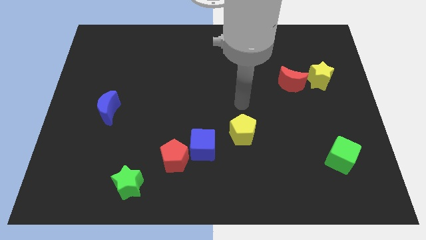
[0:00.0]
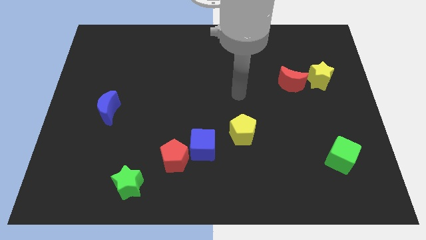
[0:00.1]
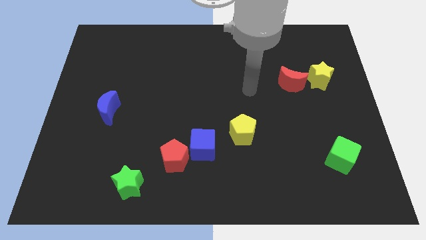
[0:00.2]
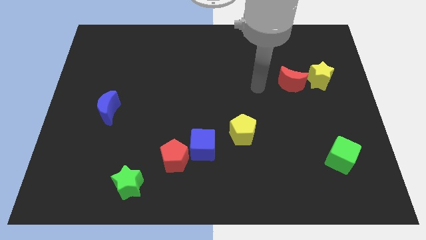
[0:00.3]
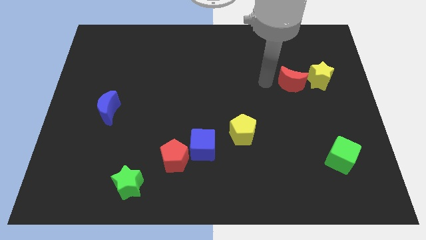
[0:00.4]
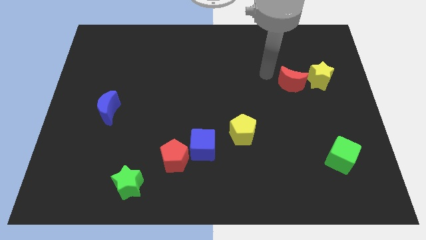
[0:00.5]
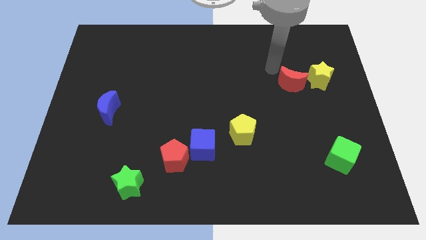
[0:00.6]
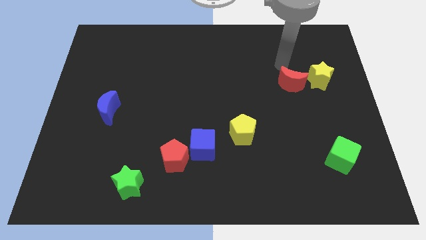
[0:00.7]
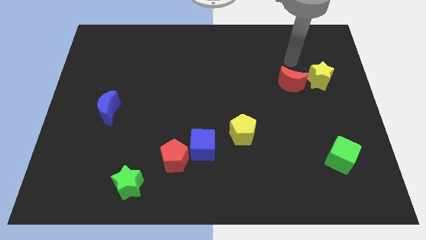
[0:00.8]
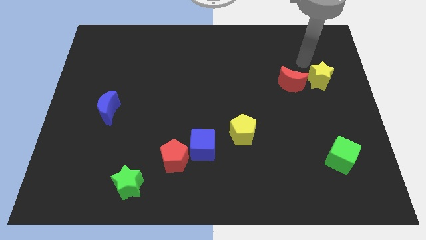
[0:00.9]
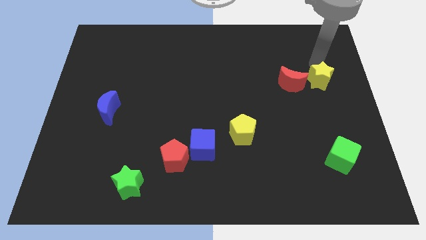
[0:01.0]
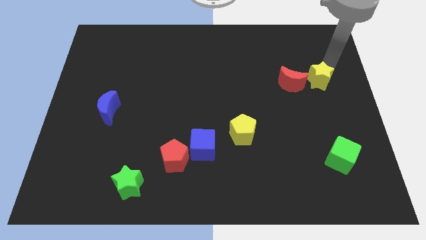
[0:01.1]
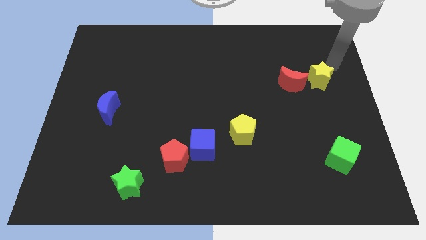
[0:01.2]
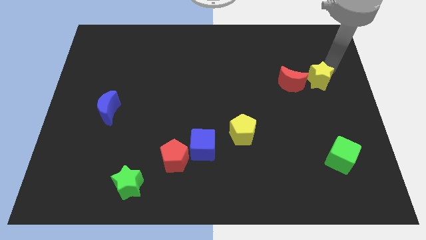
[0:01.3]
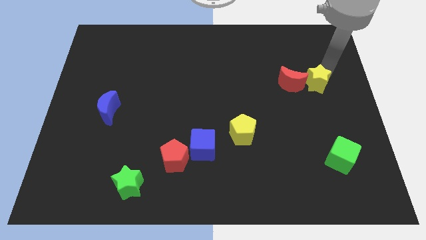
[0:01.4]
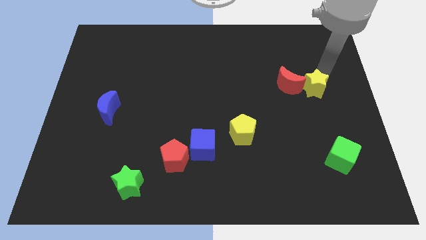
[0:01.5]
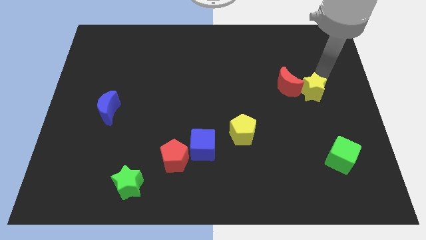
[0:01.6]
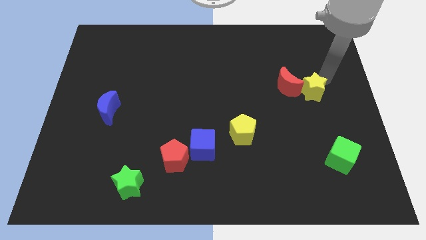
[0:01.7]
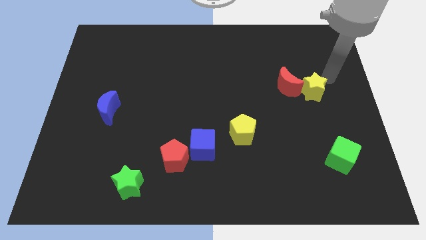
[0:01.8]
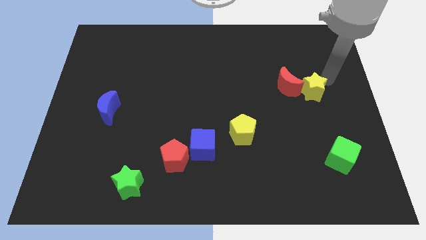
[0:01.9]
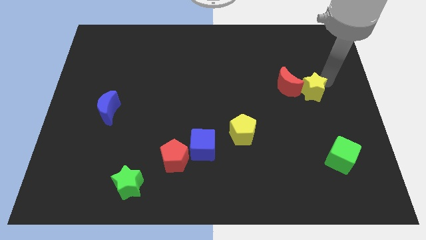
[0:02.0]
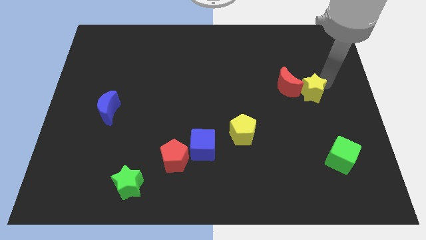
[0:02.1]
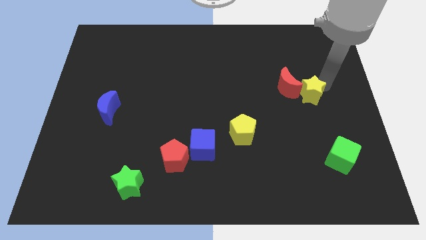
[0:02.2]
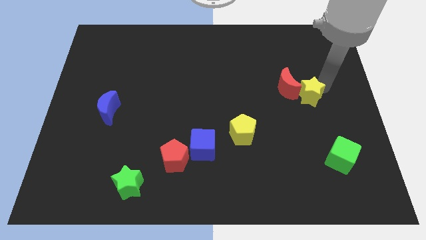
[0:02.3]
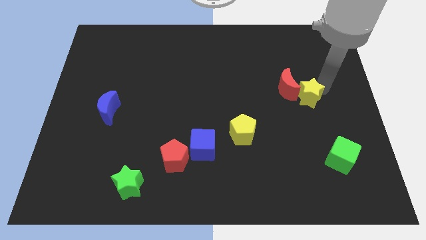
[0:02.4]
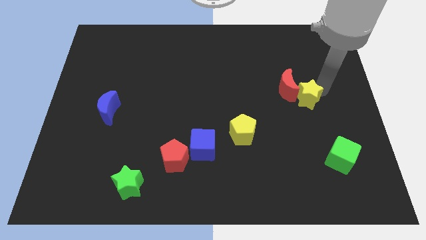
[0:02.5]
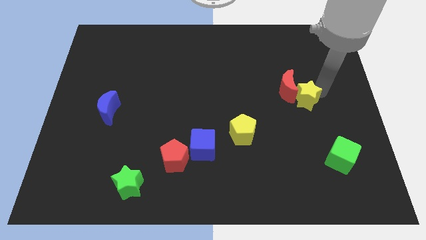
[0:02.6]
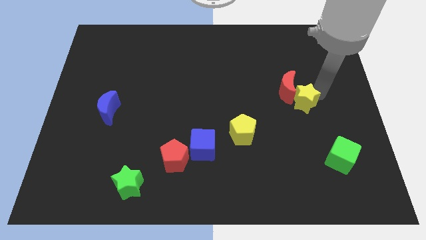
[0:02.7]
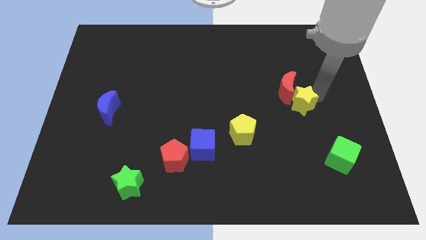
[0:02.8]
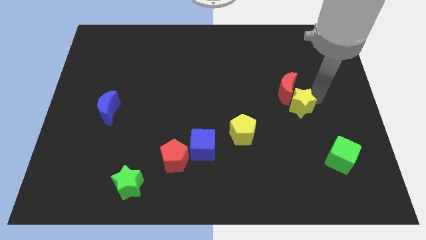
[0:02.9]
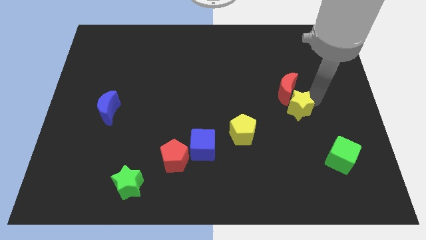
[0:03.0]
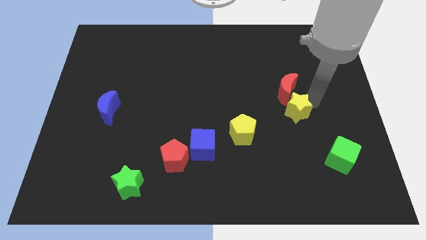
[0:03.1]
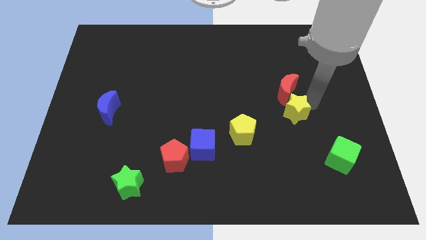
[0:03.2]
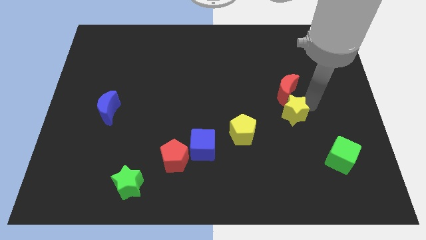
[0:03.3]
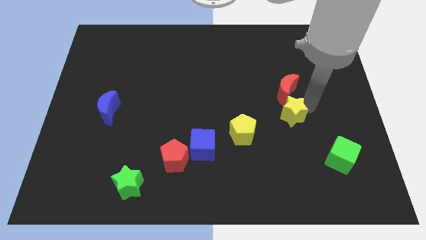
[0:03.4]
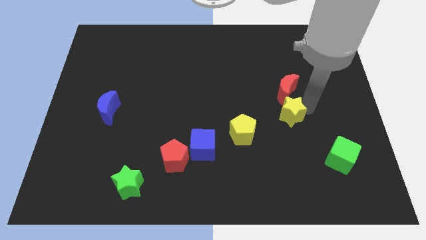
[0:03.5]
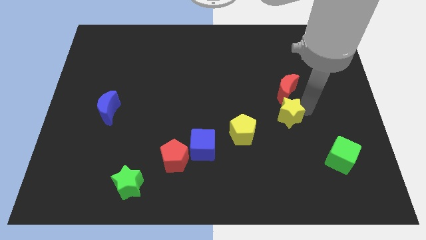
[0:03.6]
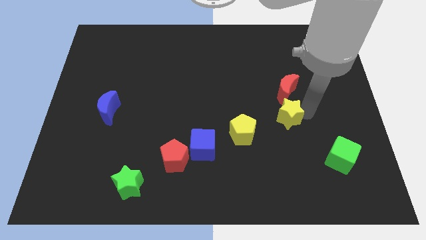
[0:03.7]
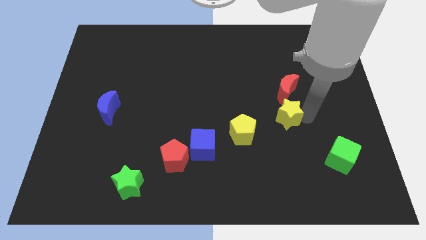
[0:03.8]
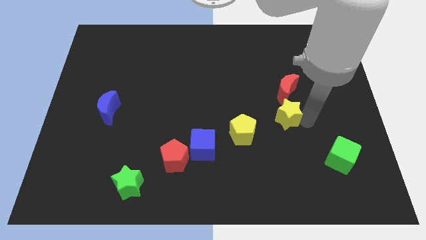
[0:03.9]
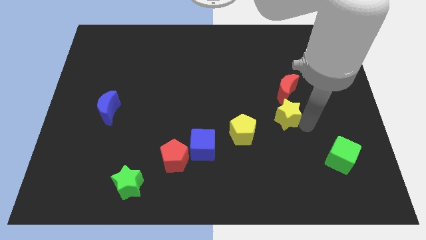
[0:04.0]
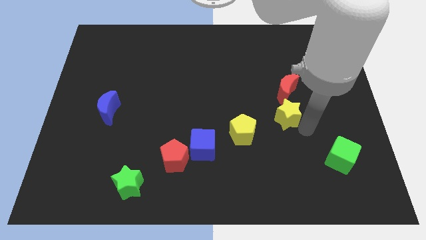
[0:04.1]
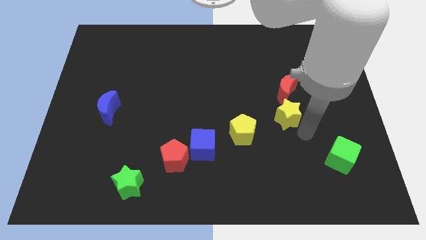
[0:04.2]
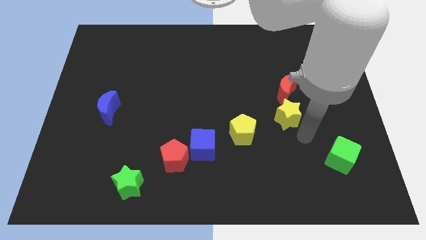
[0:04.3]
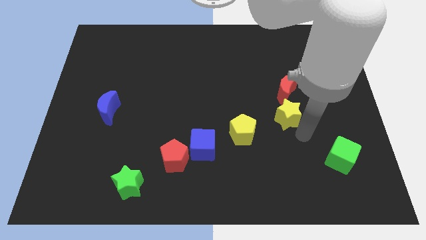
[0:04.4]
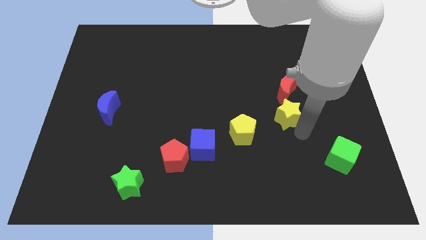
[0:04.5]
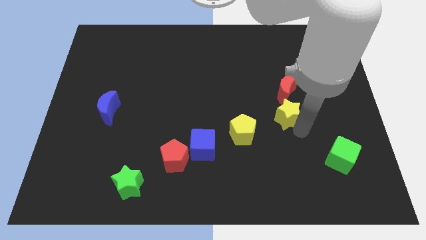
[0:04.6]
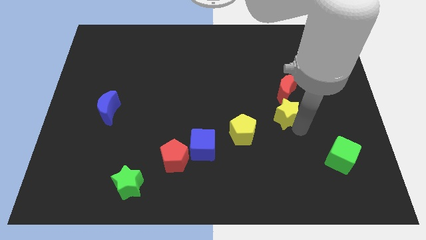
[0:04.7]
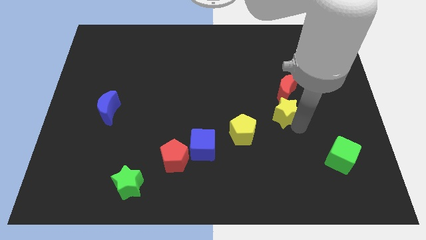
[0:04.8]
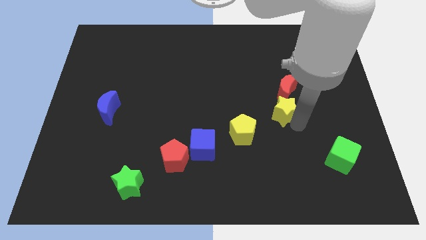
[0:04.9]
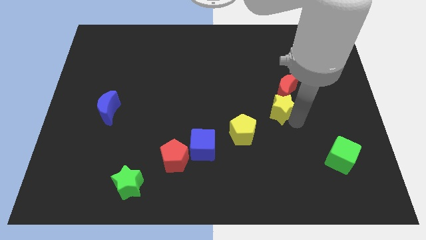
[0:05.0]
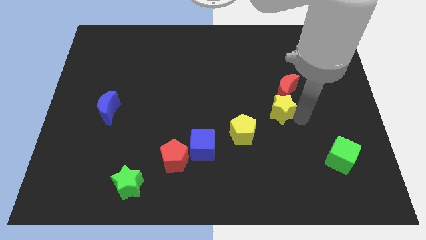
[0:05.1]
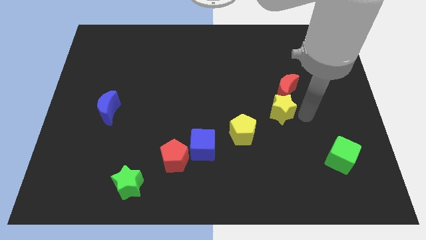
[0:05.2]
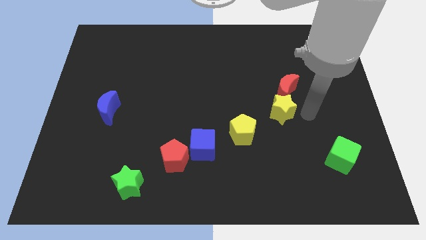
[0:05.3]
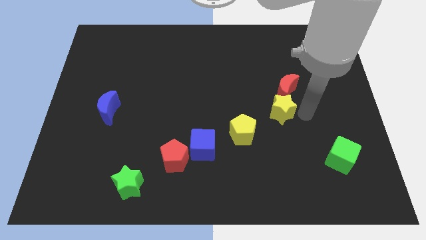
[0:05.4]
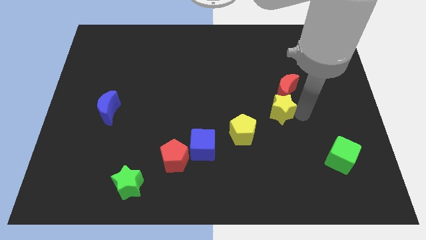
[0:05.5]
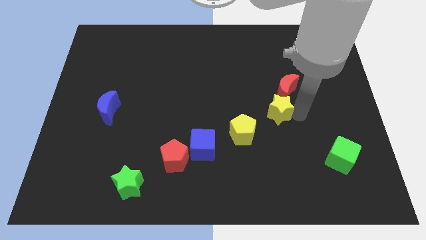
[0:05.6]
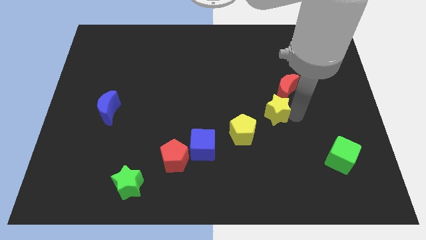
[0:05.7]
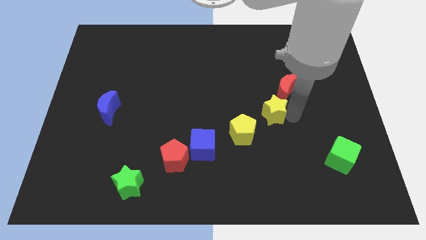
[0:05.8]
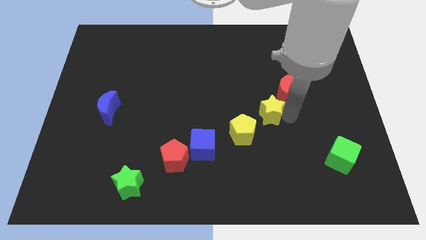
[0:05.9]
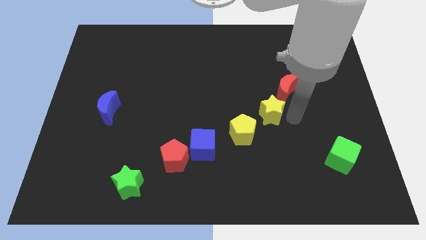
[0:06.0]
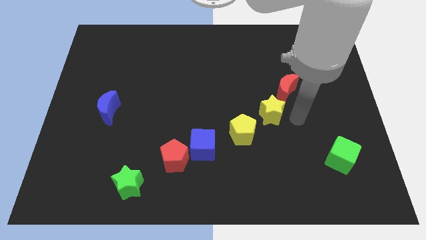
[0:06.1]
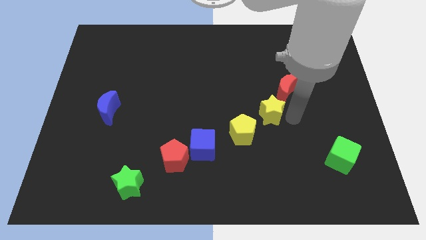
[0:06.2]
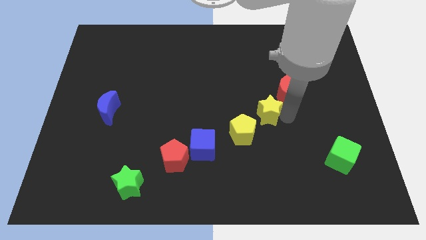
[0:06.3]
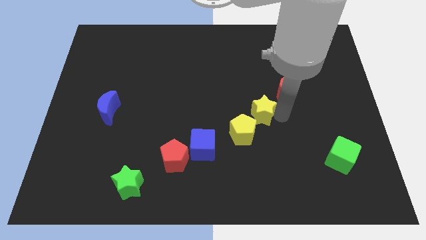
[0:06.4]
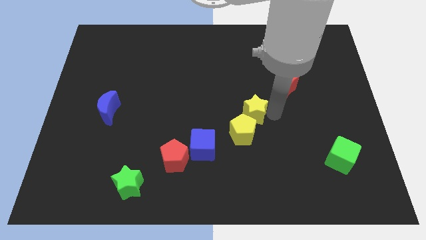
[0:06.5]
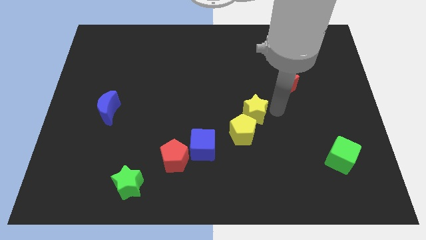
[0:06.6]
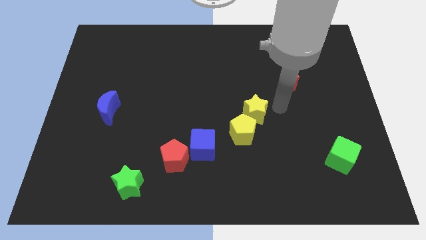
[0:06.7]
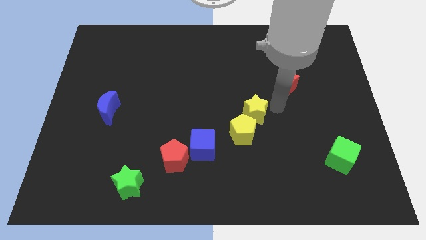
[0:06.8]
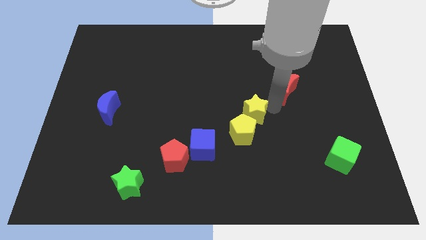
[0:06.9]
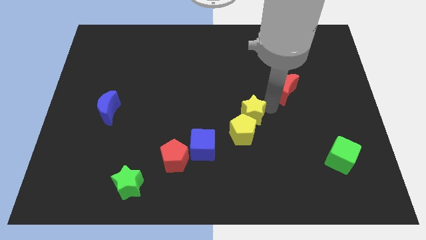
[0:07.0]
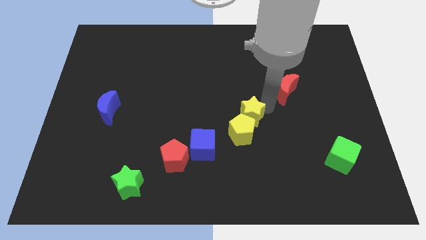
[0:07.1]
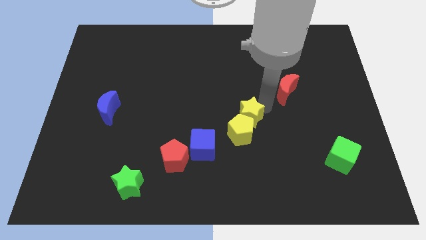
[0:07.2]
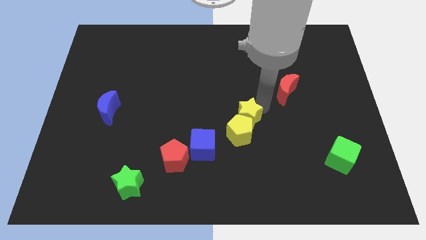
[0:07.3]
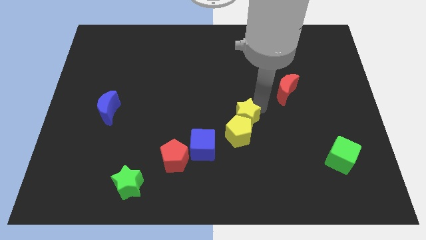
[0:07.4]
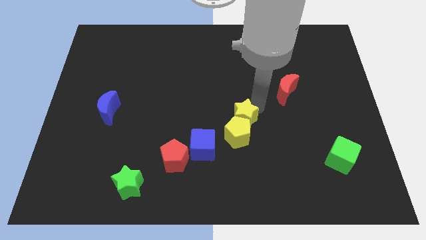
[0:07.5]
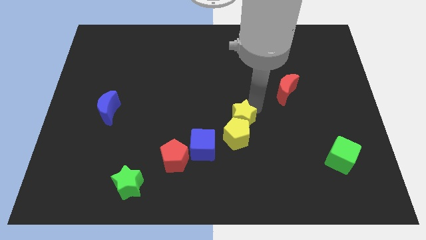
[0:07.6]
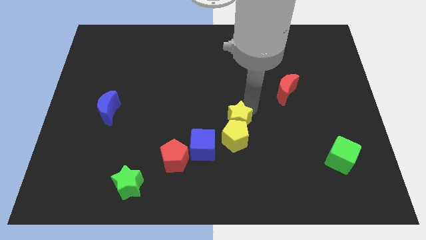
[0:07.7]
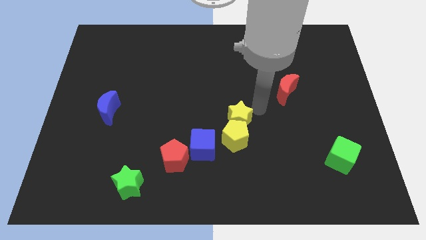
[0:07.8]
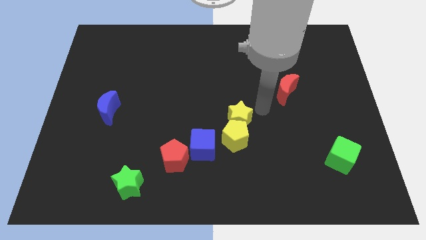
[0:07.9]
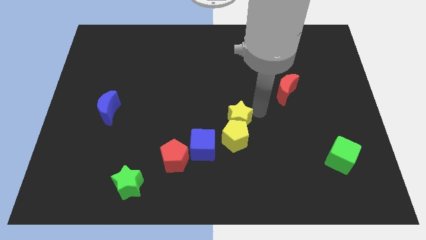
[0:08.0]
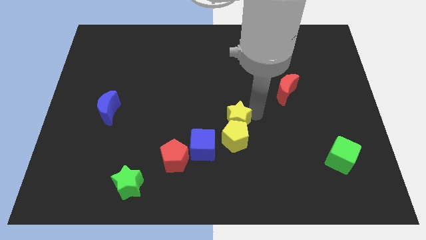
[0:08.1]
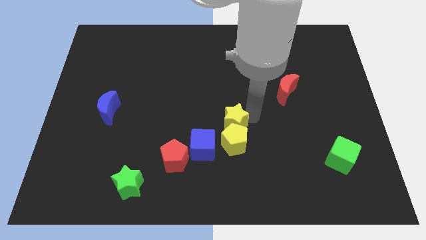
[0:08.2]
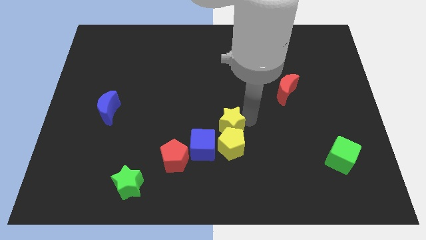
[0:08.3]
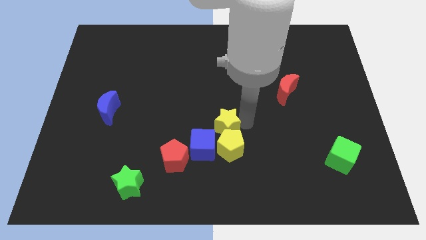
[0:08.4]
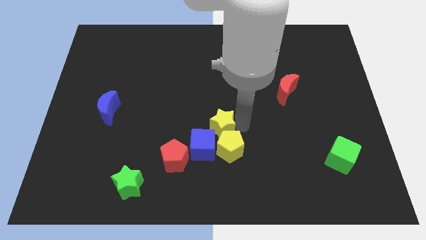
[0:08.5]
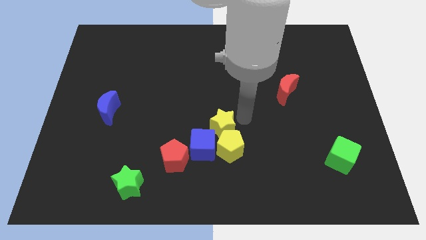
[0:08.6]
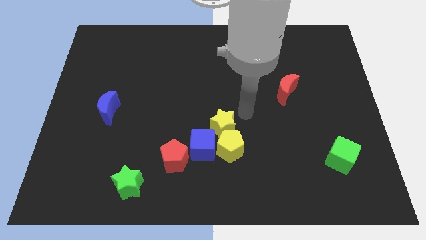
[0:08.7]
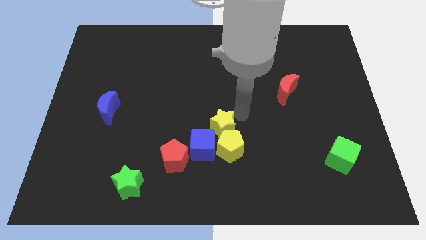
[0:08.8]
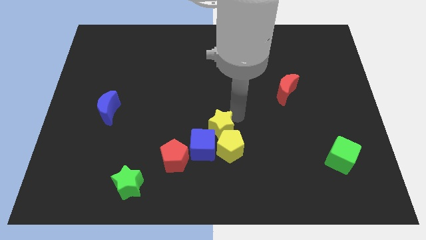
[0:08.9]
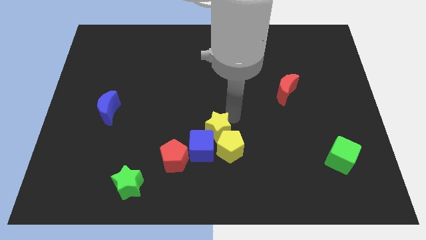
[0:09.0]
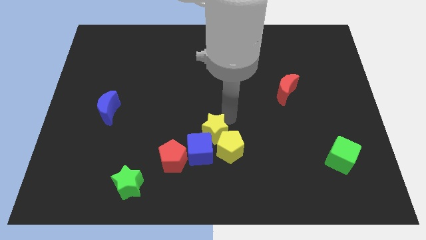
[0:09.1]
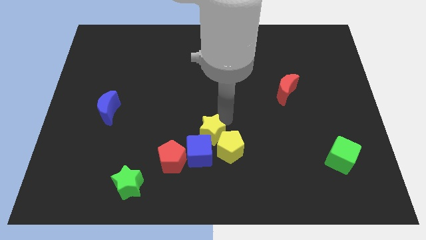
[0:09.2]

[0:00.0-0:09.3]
slide the yellow star to the left side of the yellow pentagon
